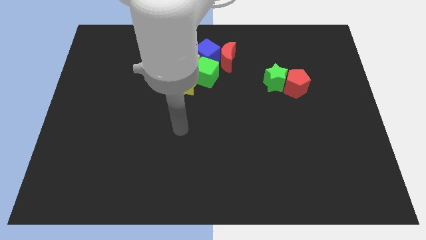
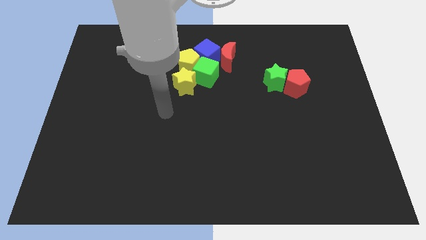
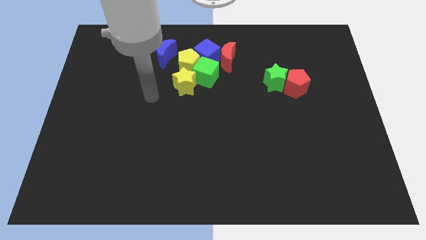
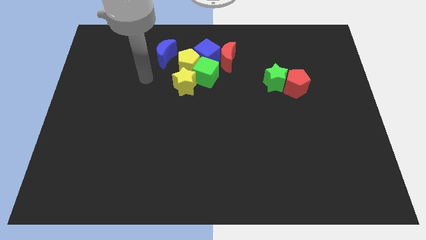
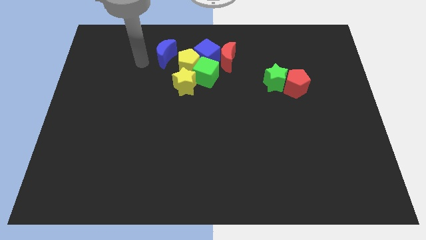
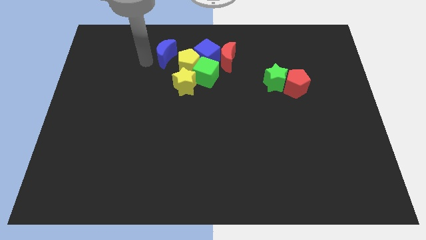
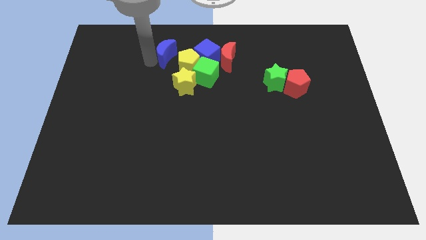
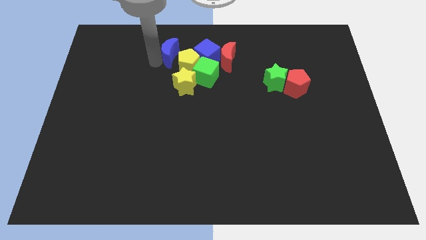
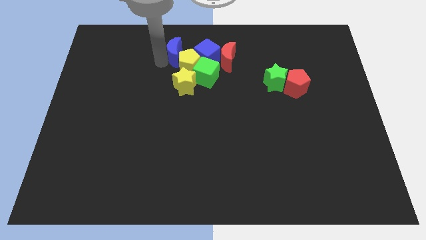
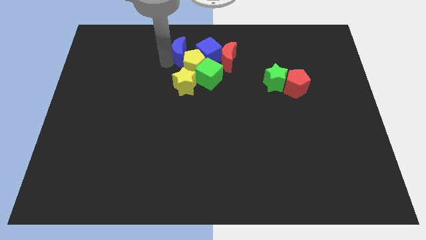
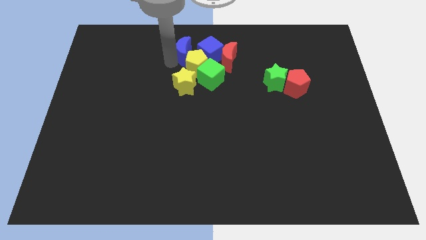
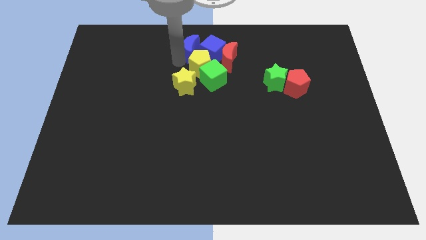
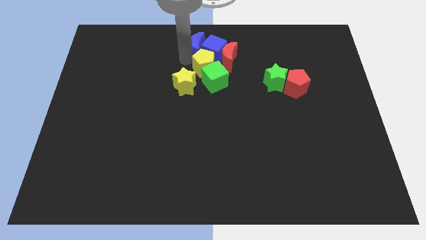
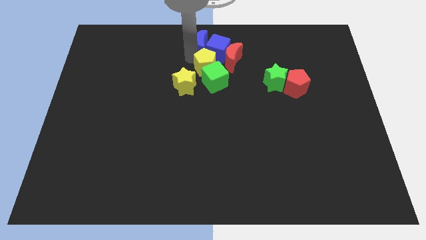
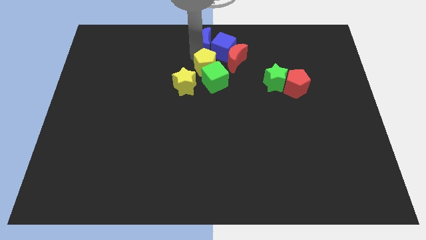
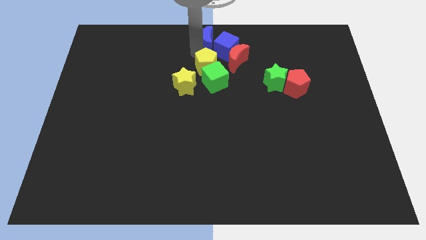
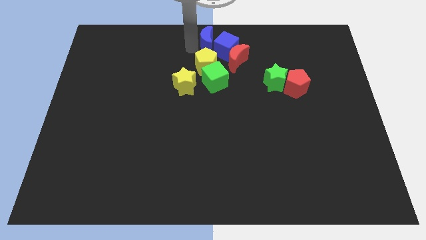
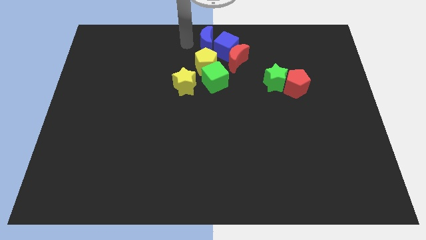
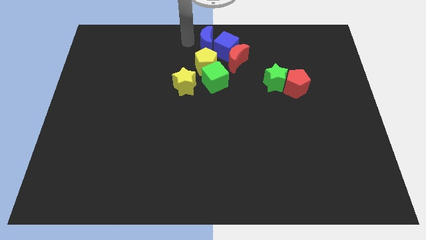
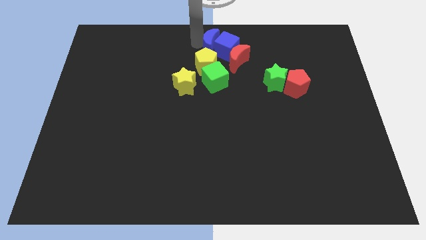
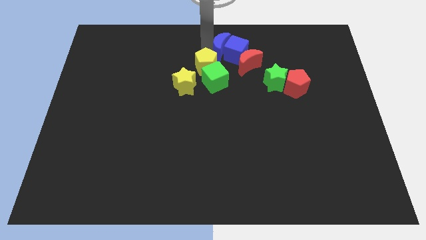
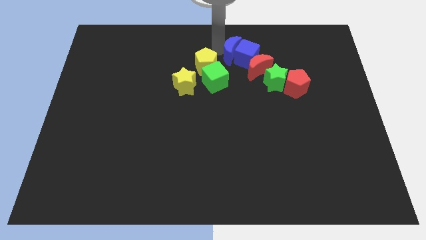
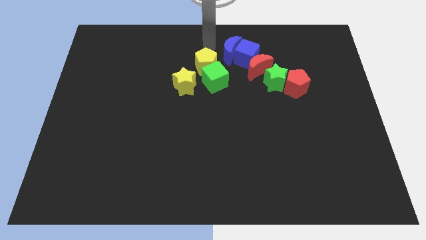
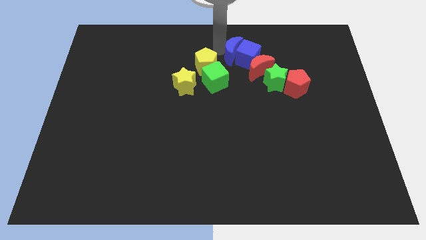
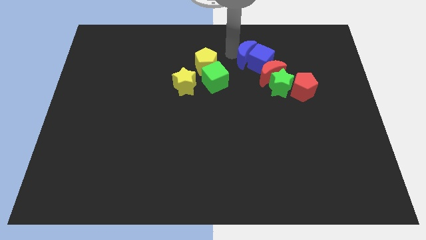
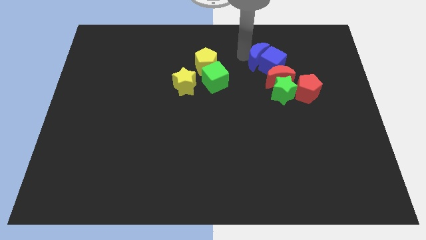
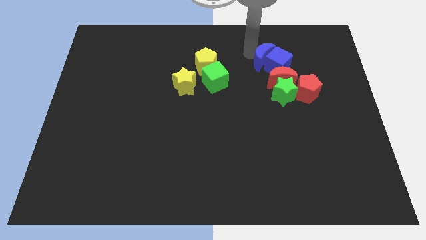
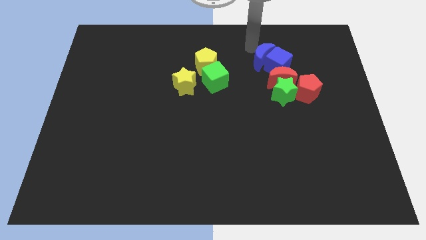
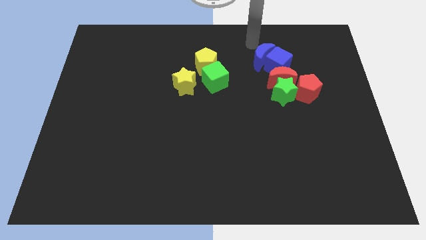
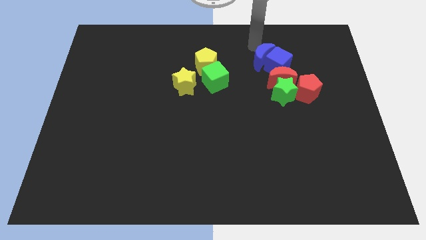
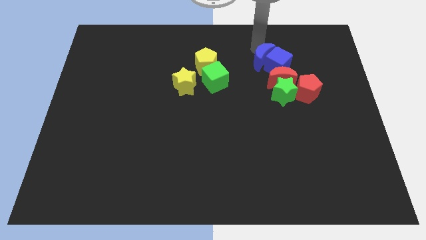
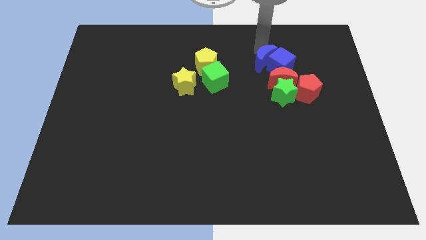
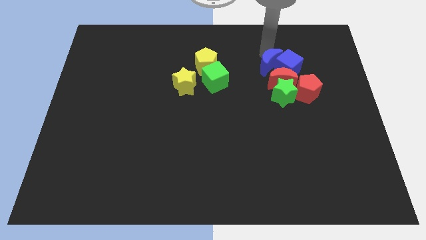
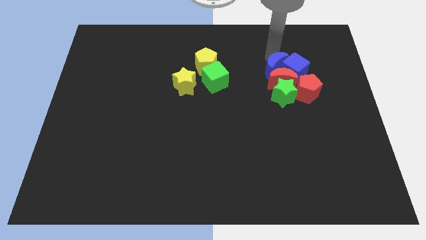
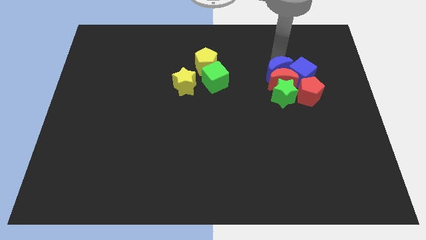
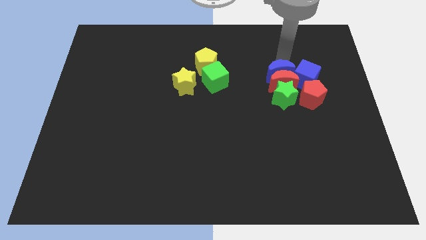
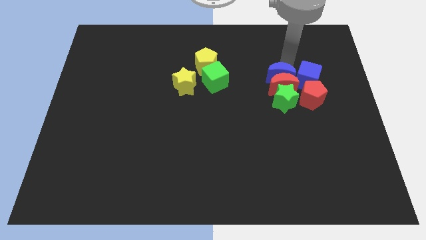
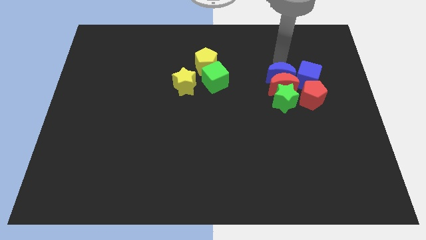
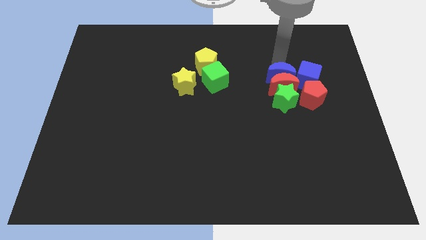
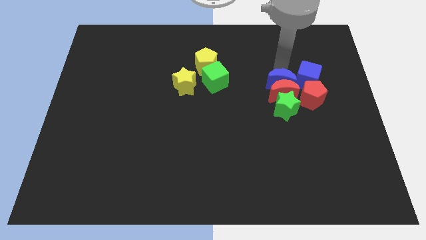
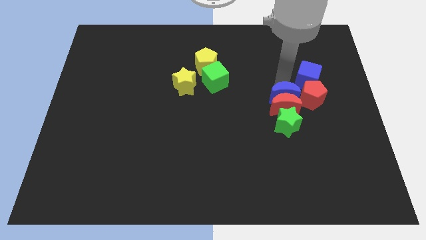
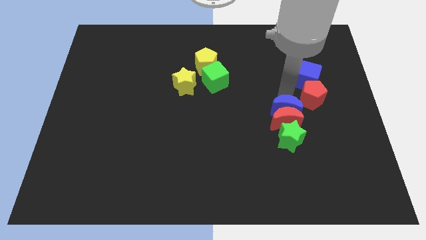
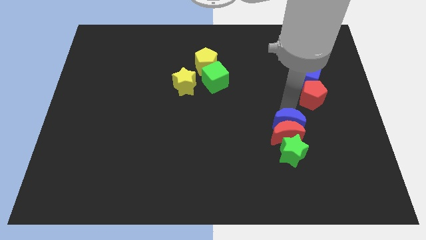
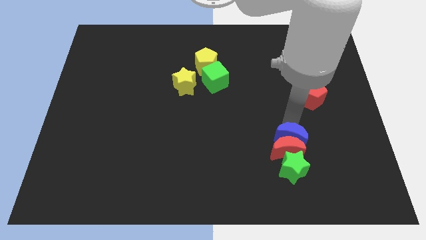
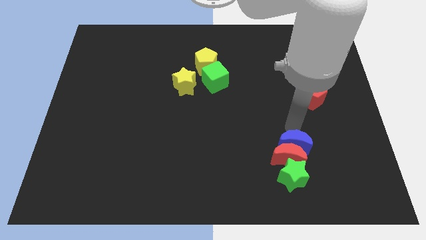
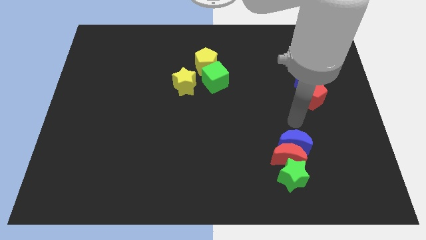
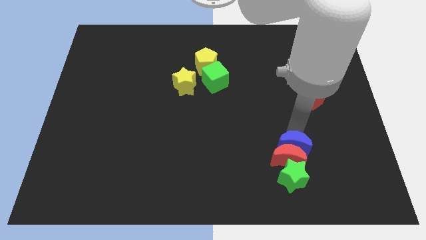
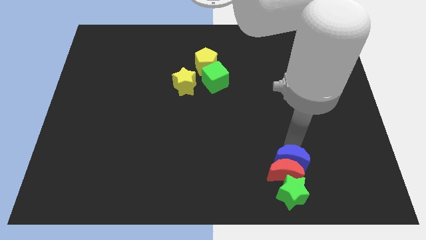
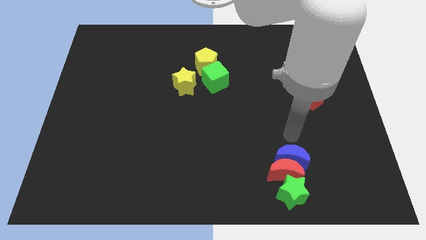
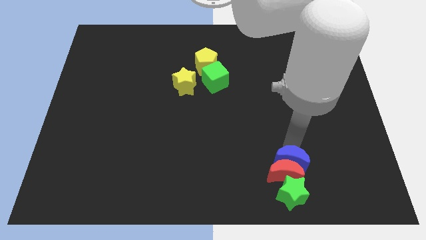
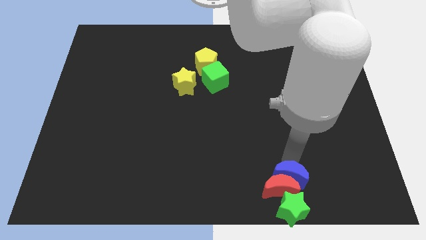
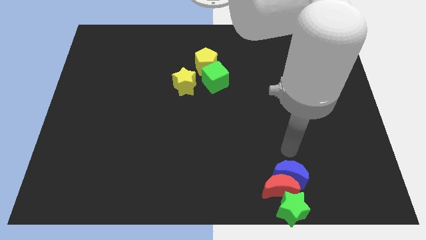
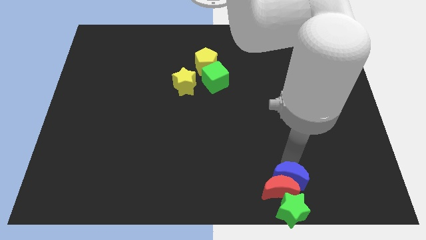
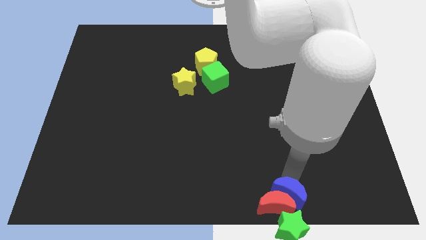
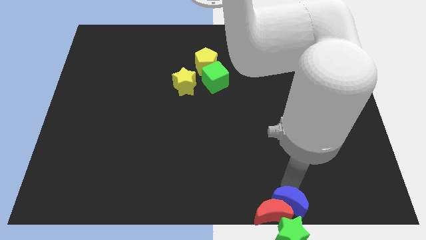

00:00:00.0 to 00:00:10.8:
push the blue moon to the green star

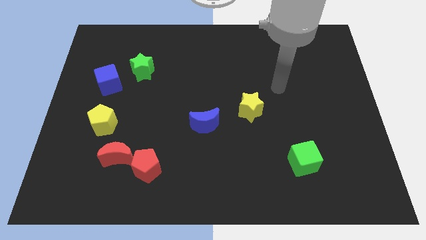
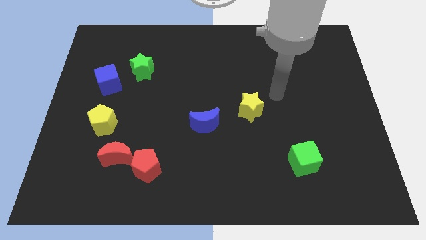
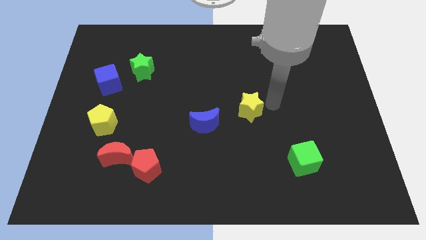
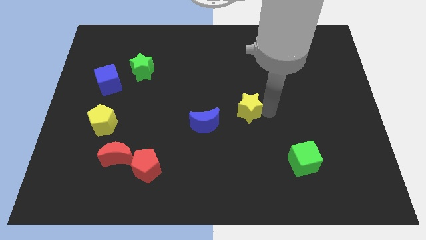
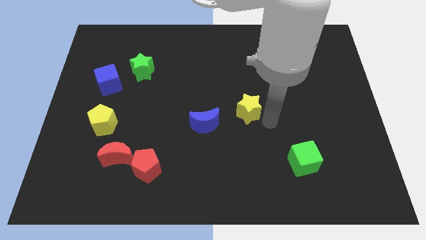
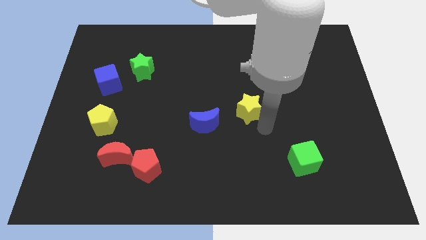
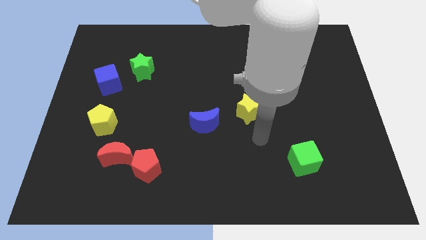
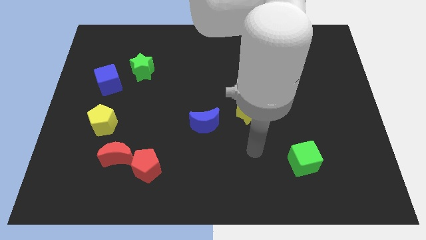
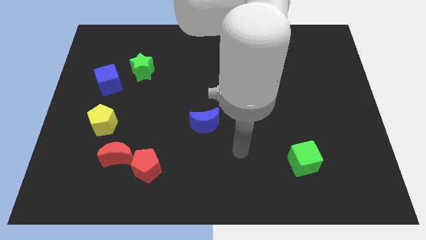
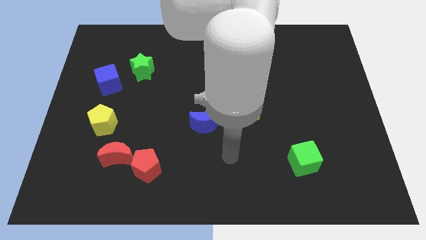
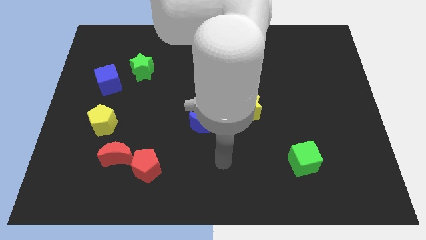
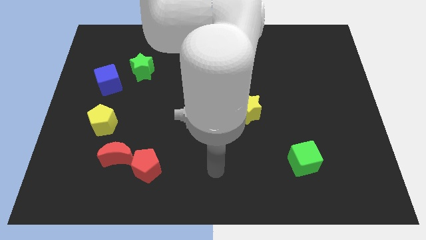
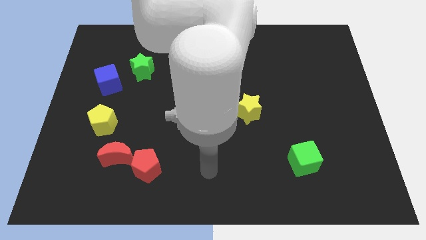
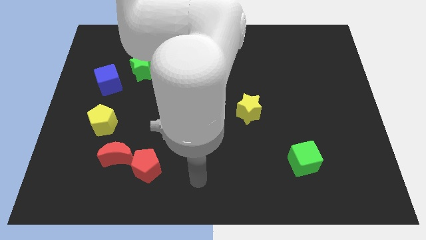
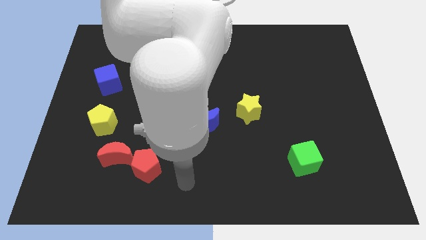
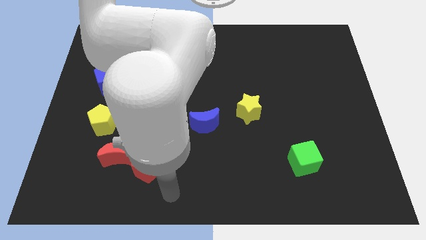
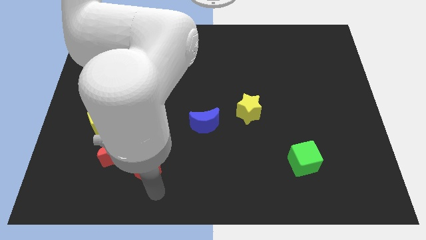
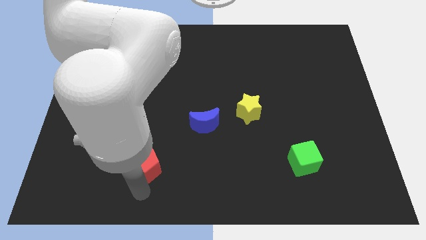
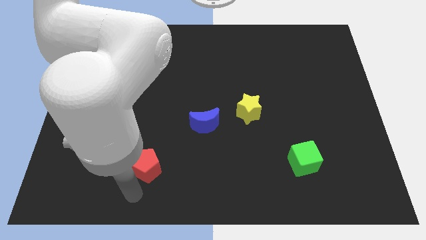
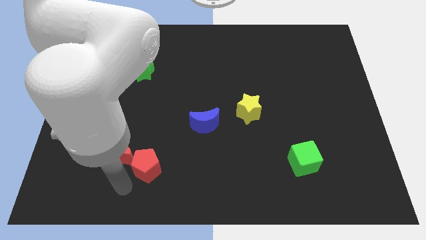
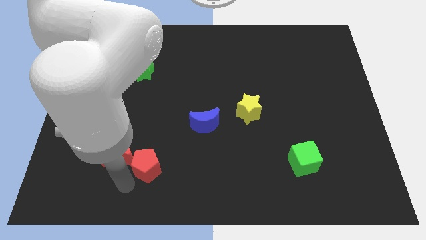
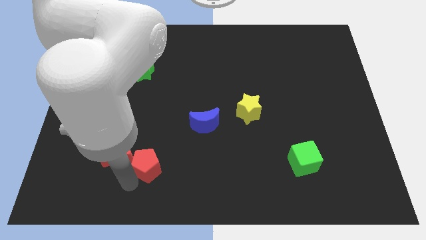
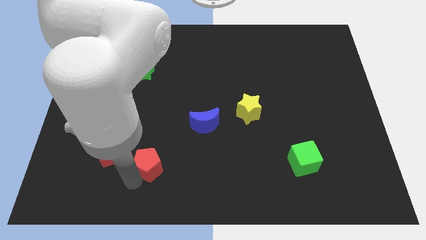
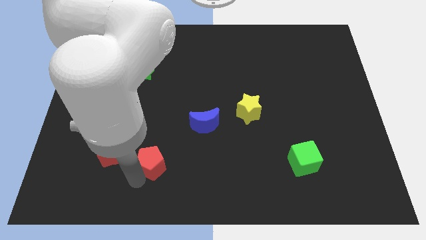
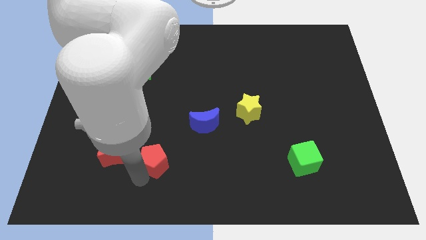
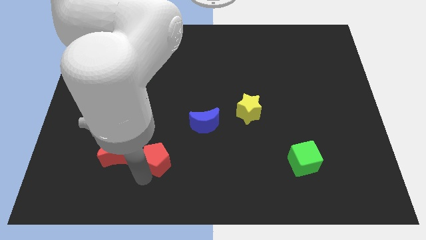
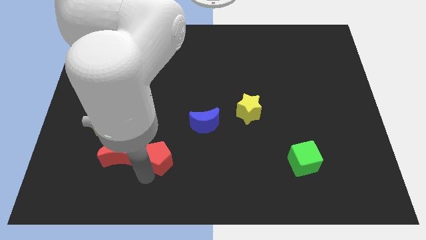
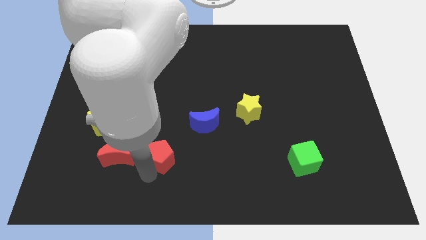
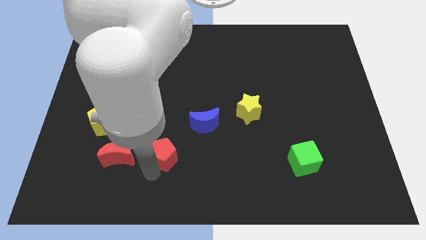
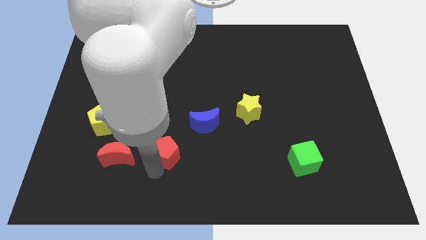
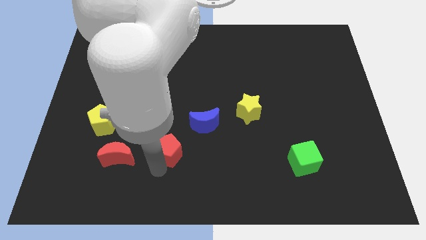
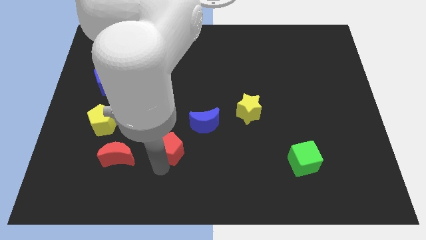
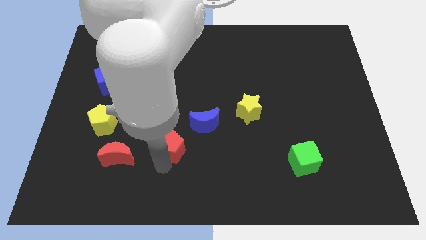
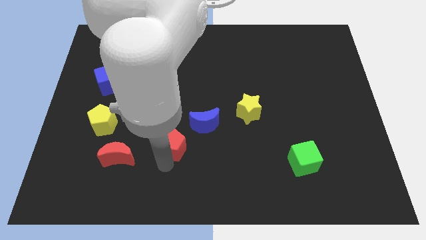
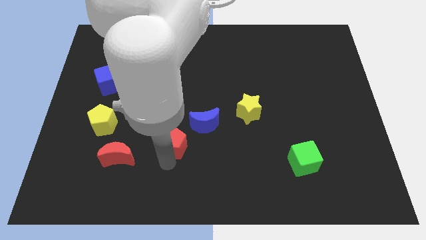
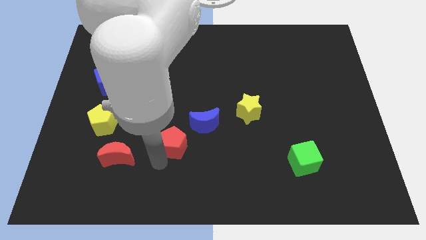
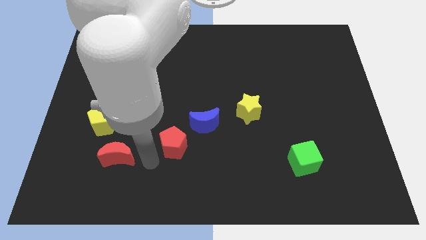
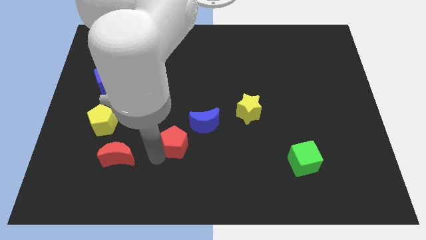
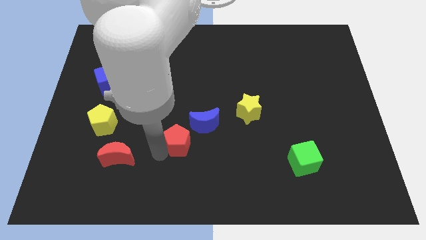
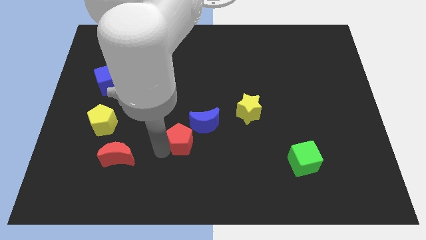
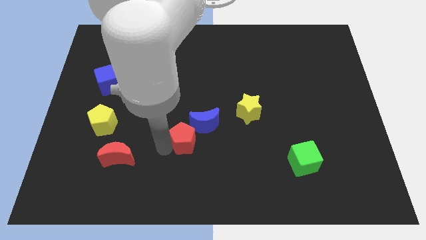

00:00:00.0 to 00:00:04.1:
put the red pentagon next to the blue moon
